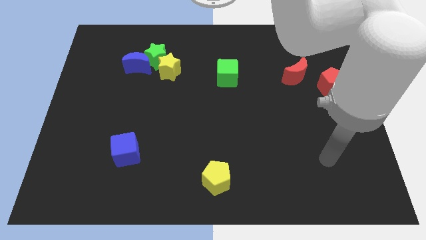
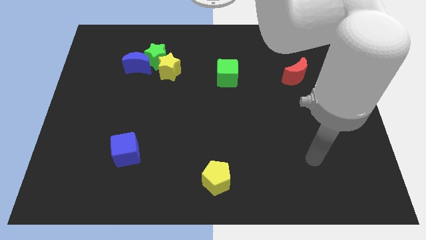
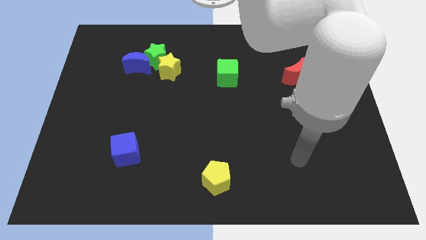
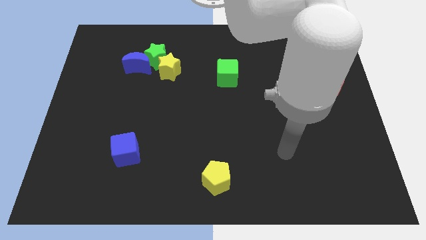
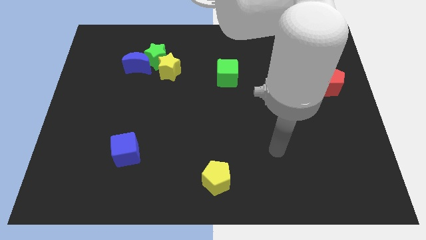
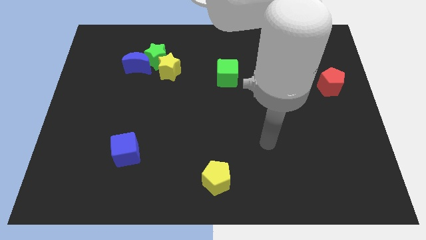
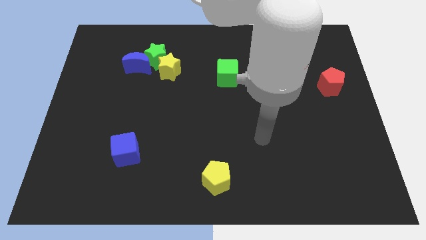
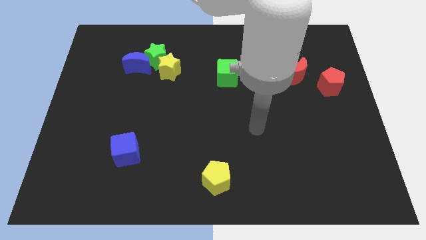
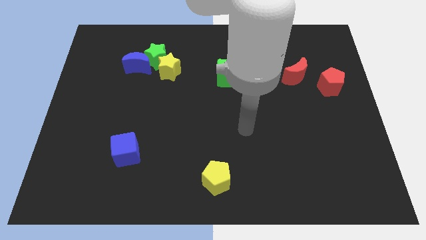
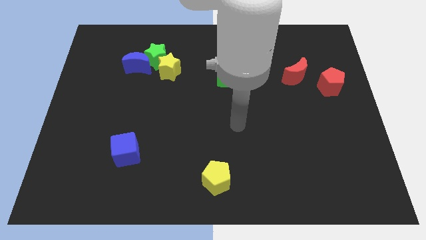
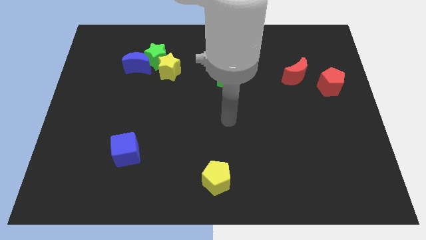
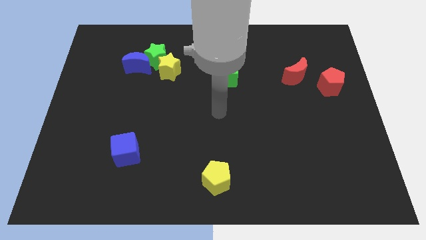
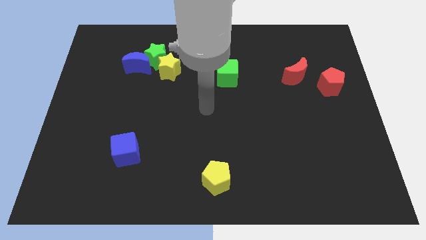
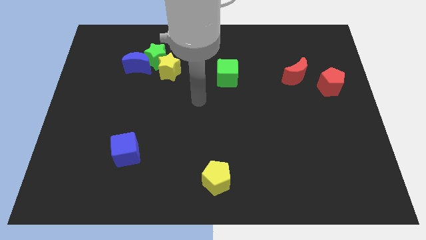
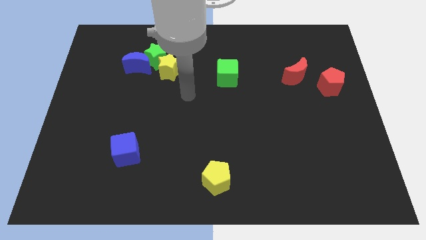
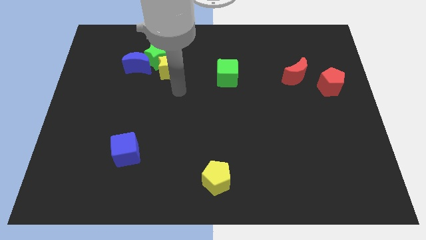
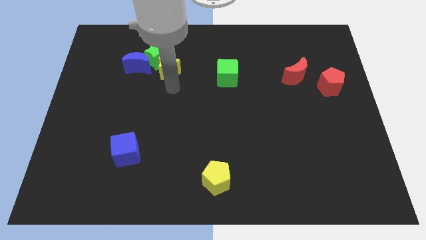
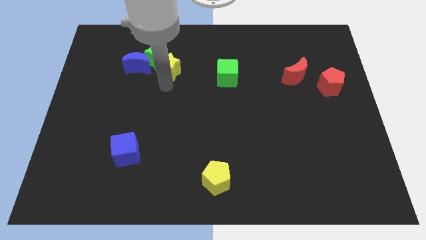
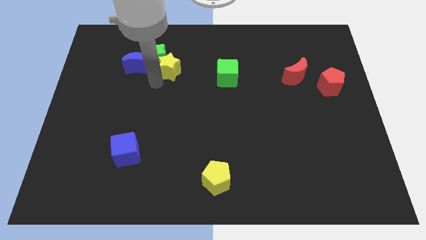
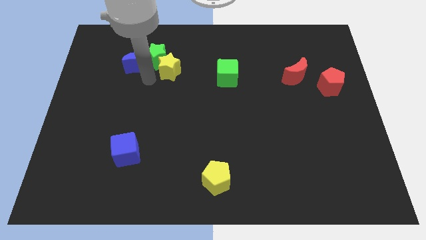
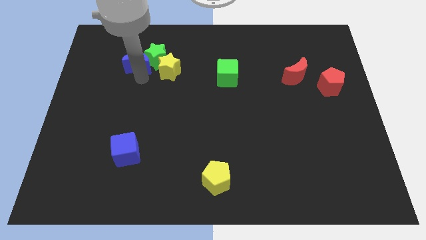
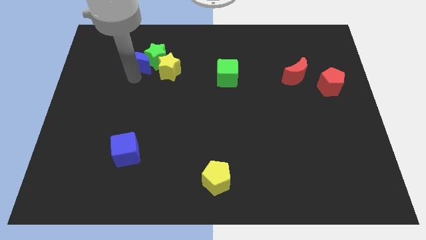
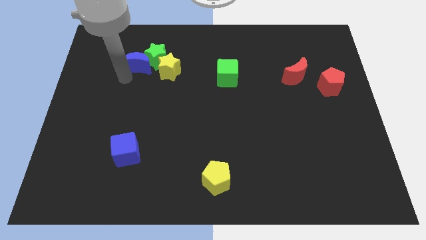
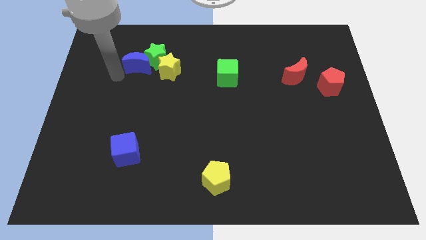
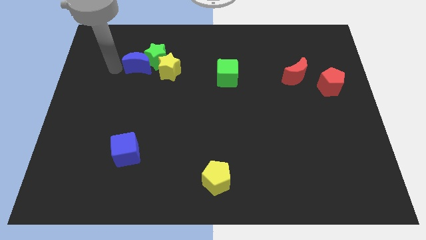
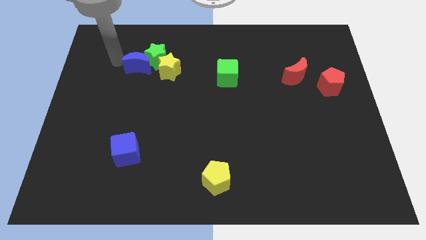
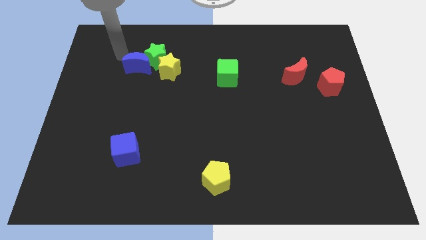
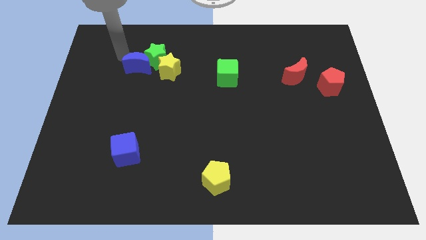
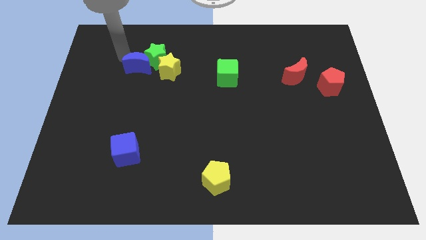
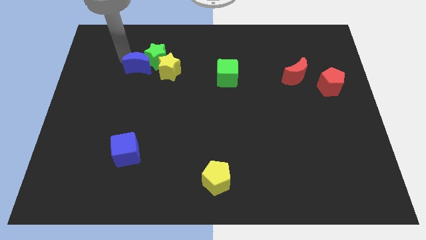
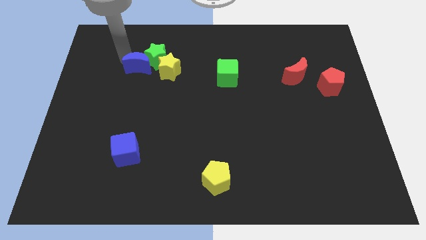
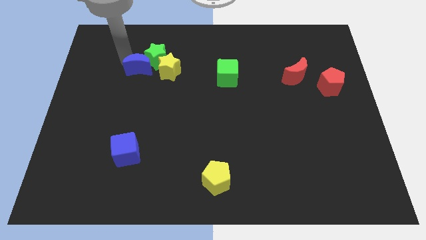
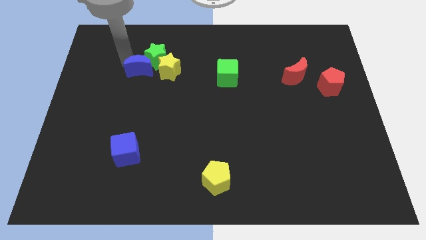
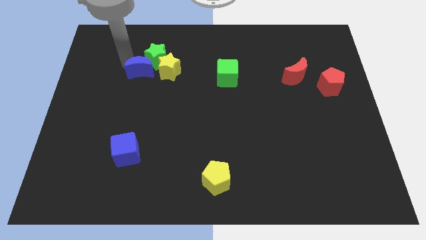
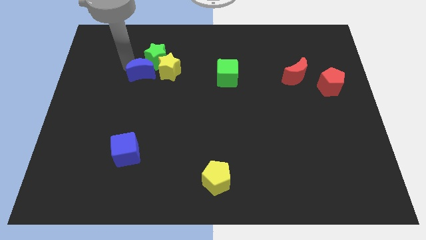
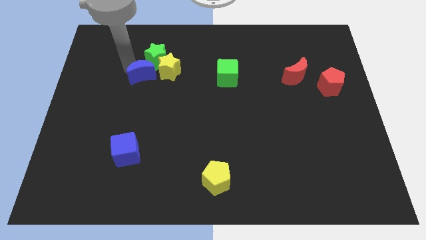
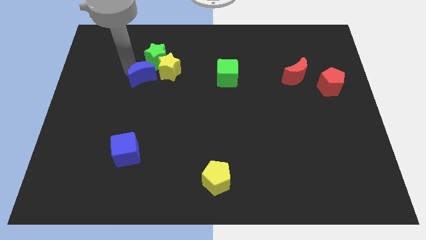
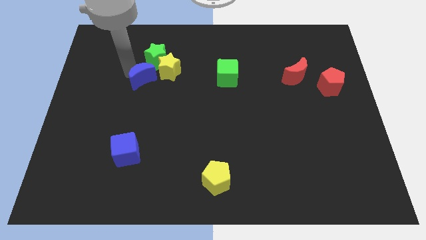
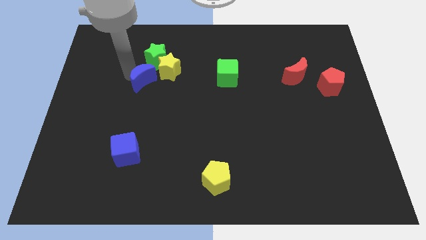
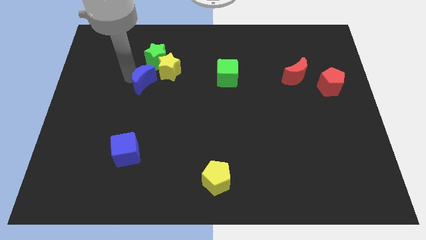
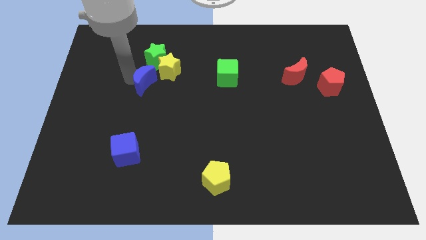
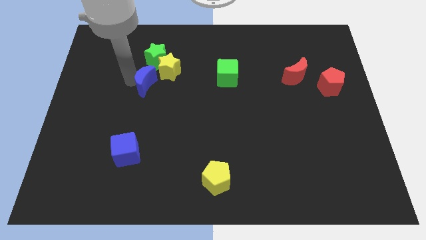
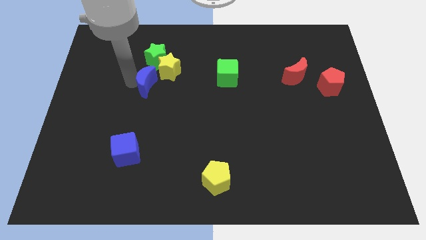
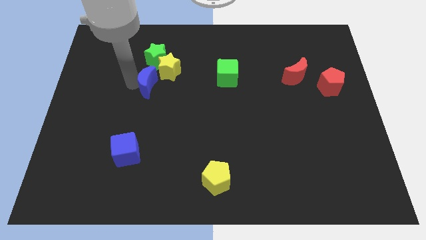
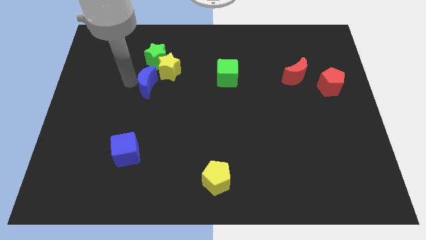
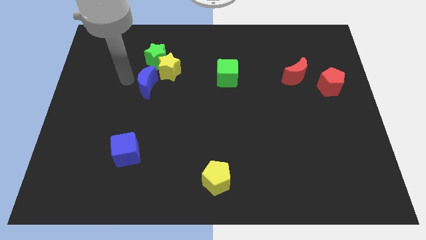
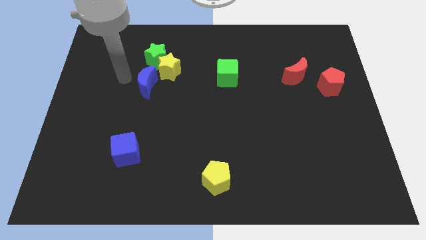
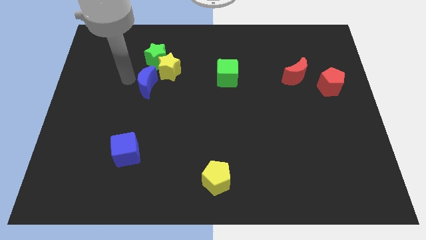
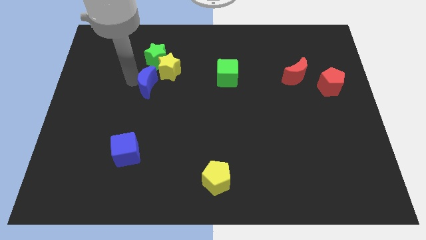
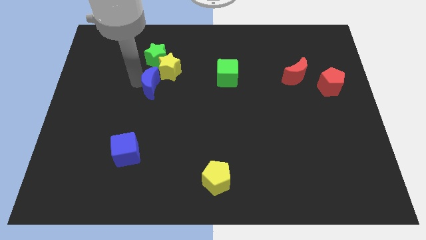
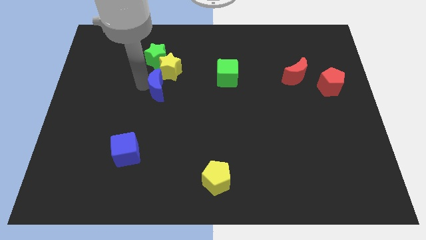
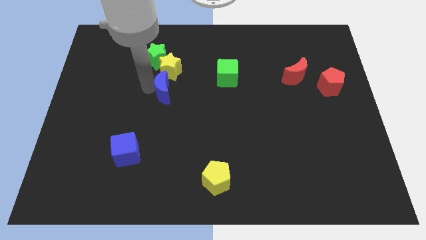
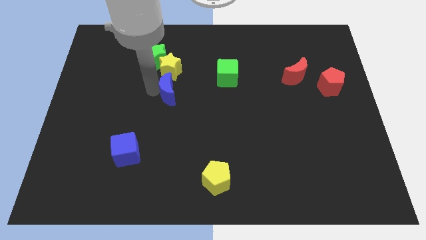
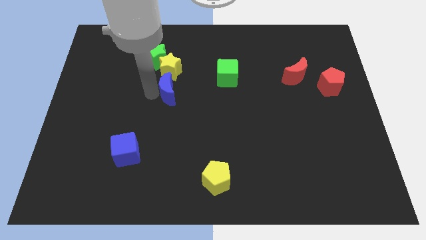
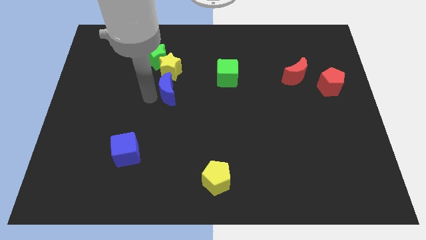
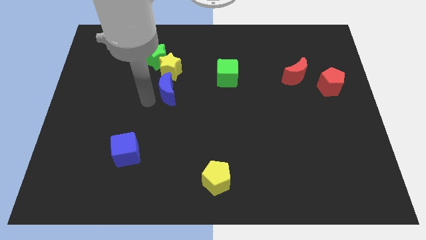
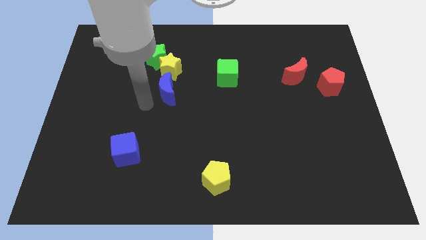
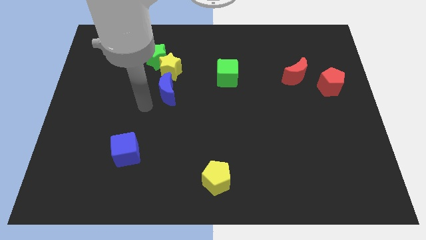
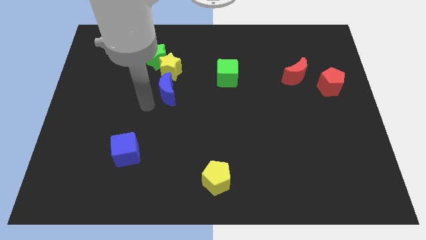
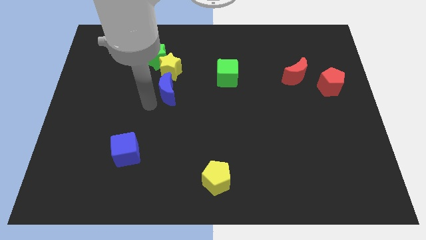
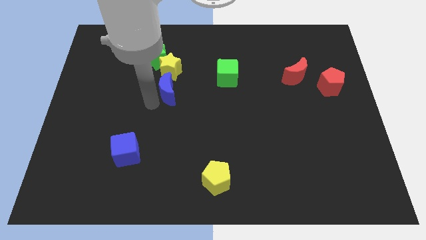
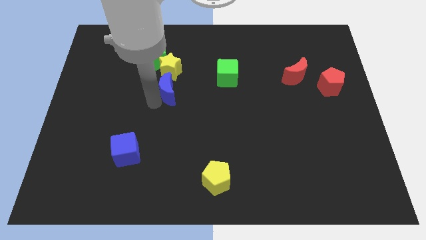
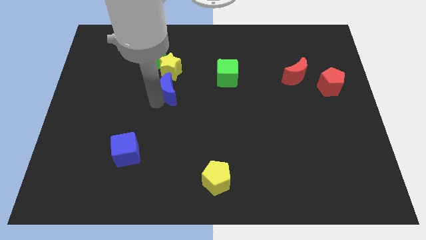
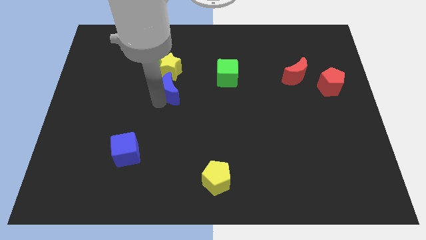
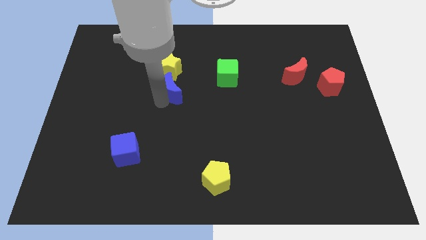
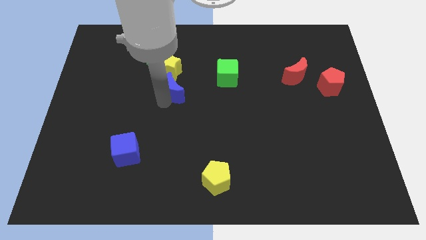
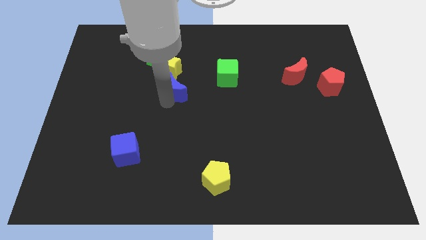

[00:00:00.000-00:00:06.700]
slightly slide the blue moon to the right

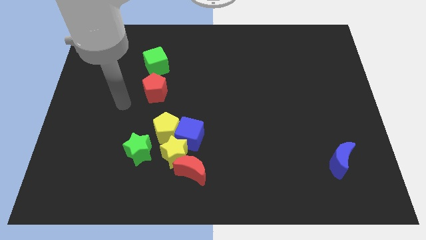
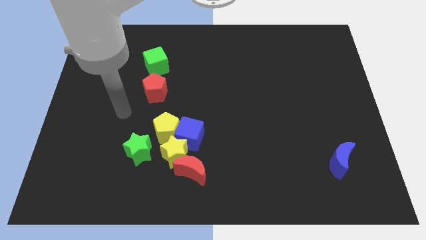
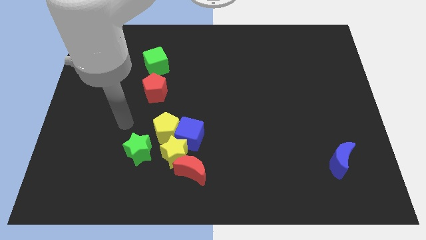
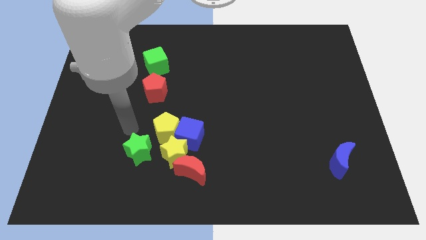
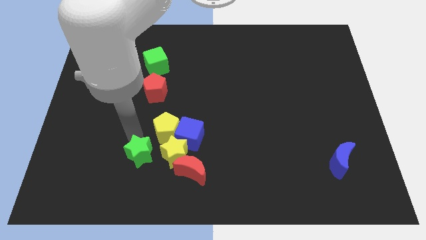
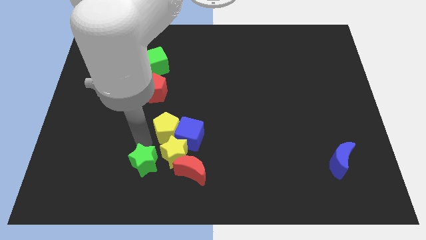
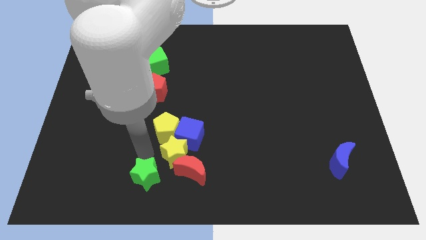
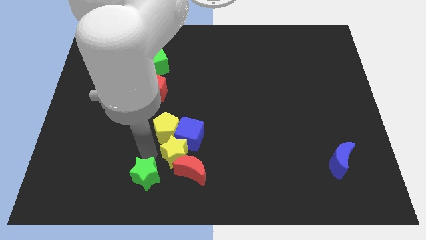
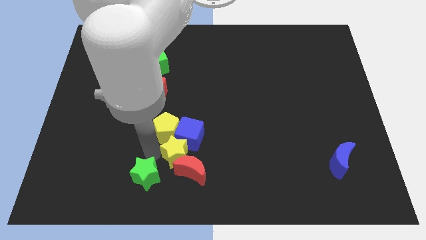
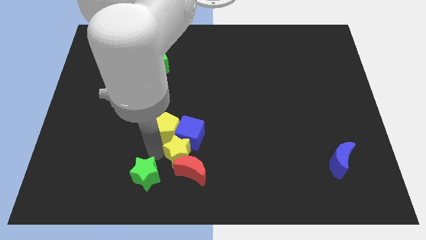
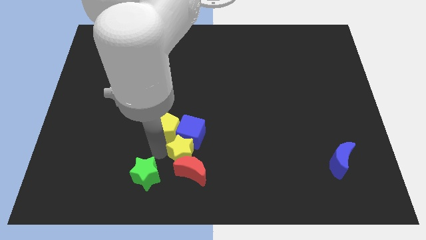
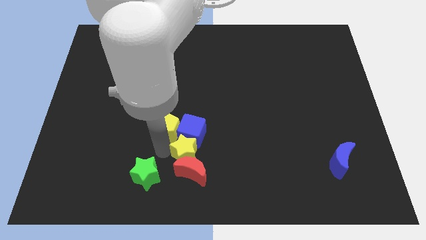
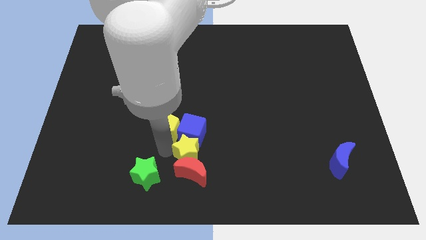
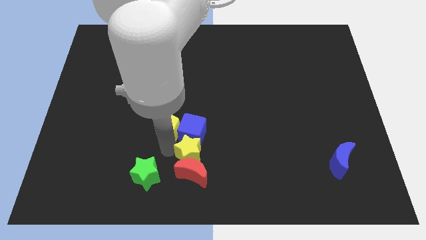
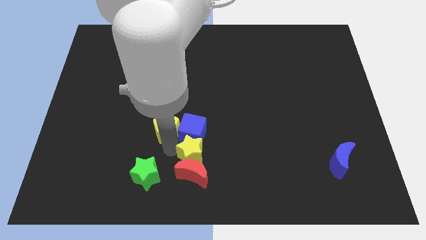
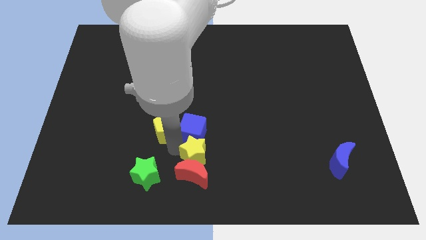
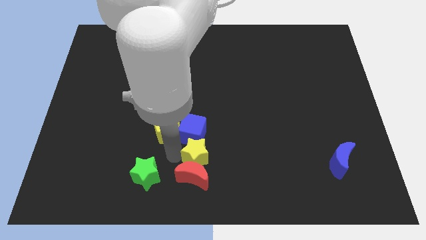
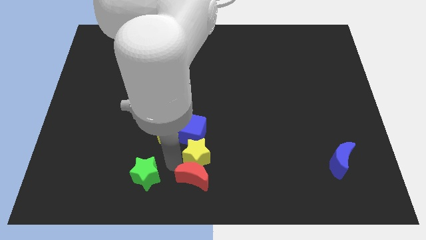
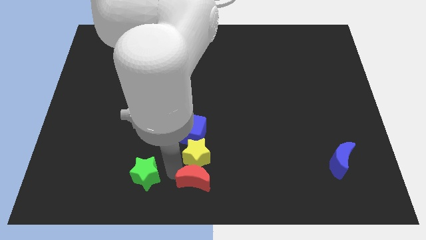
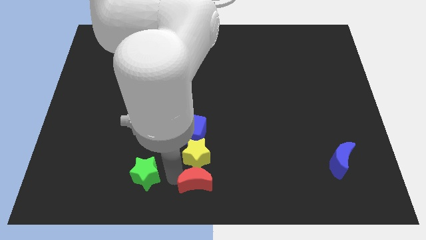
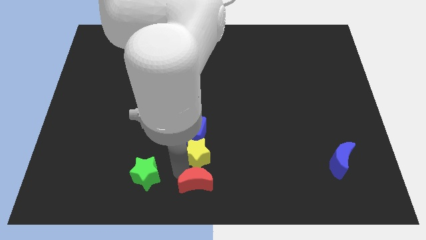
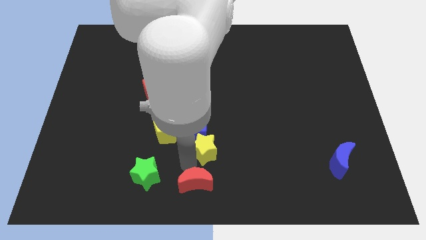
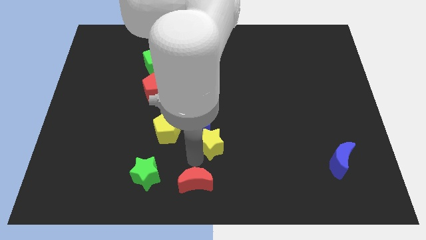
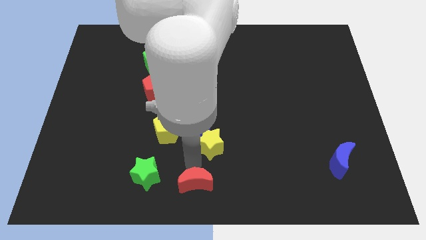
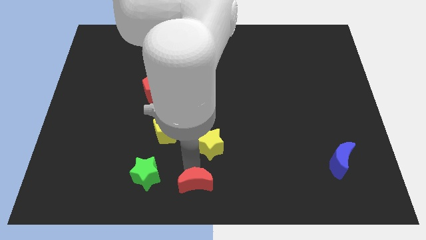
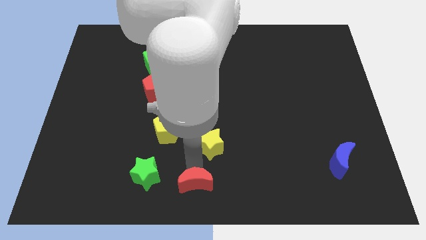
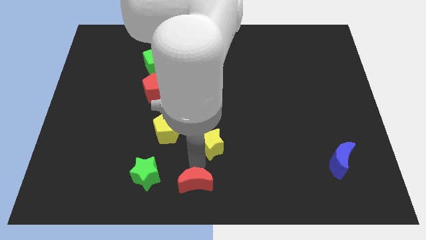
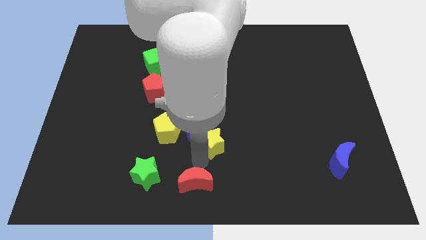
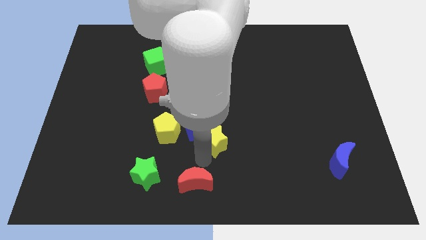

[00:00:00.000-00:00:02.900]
slide the yellow star a bit up and to the right diagonally
